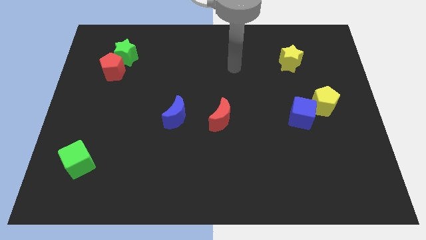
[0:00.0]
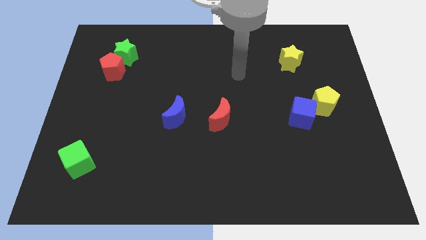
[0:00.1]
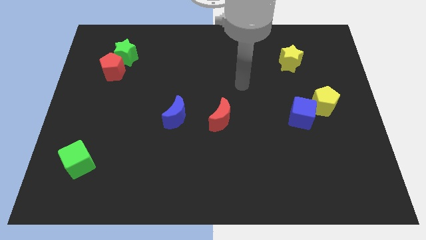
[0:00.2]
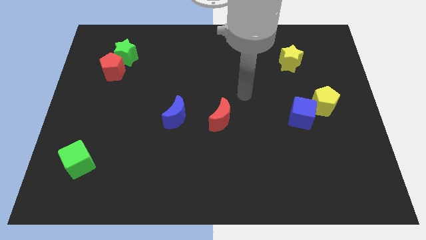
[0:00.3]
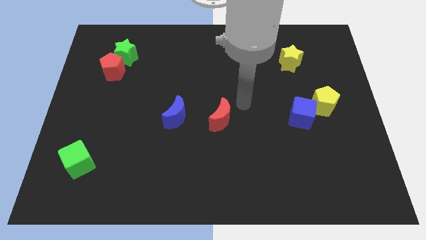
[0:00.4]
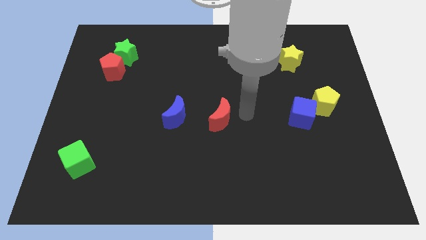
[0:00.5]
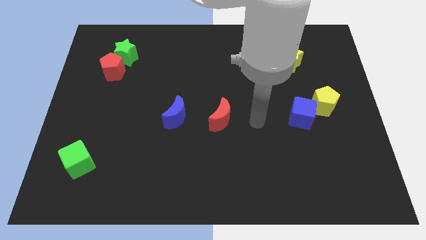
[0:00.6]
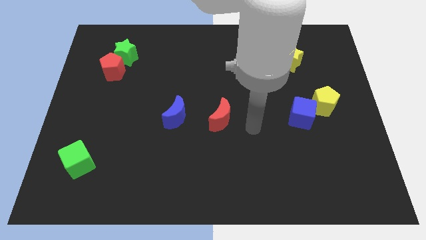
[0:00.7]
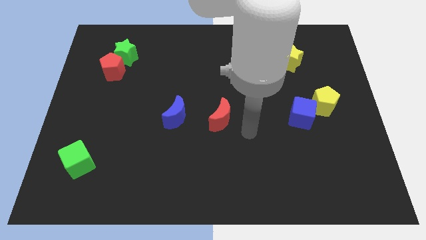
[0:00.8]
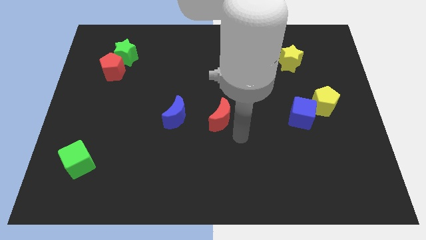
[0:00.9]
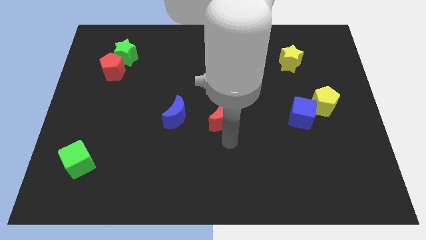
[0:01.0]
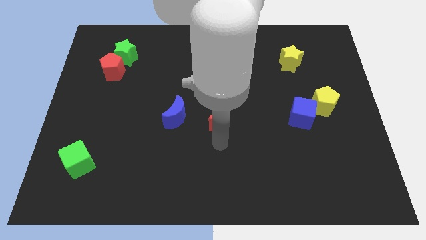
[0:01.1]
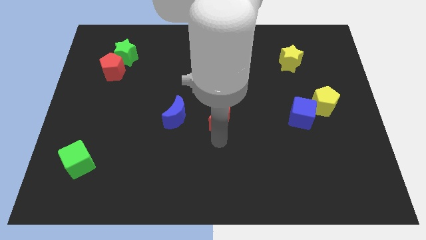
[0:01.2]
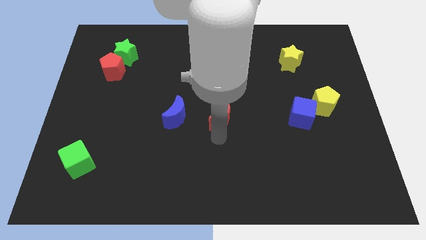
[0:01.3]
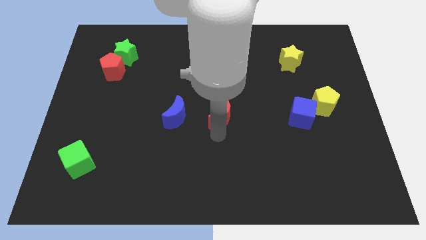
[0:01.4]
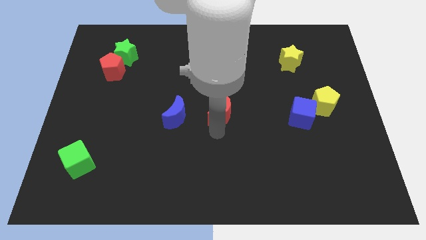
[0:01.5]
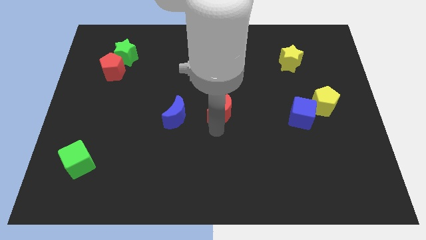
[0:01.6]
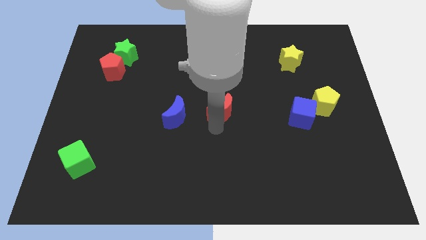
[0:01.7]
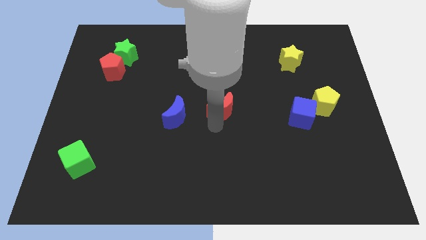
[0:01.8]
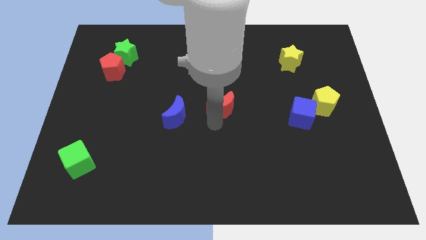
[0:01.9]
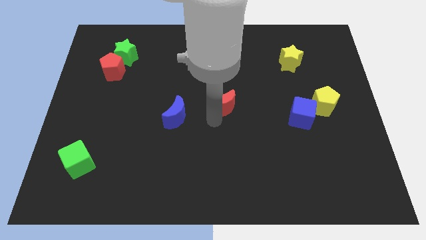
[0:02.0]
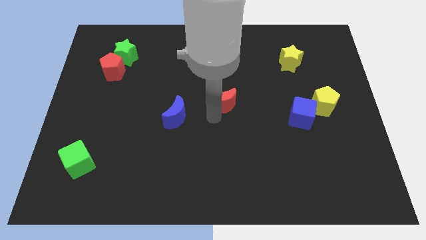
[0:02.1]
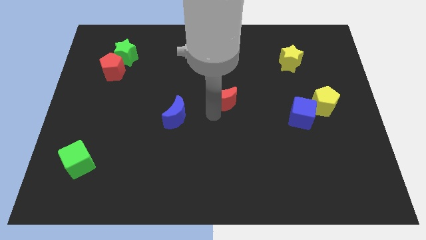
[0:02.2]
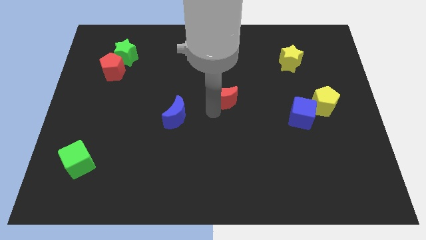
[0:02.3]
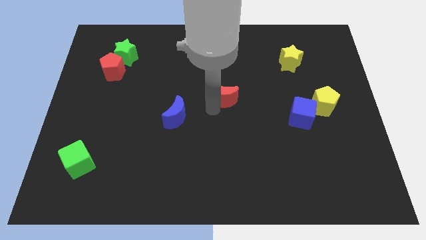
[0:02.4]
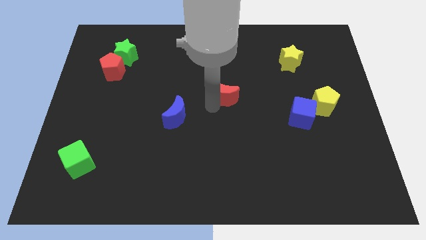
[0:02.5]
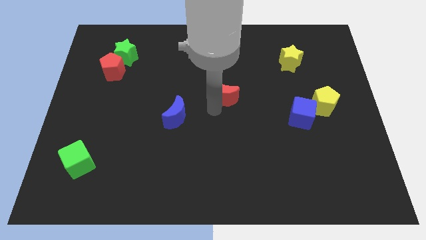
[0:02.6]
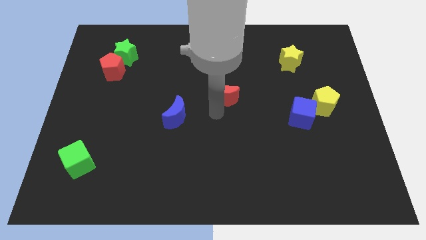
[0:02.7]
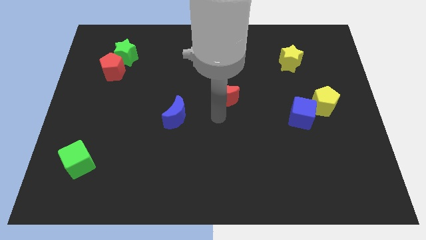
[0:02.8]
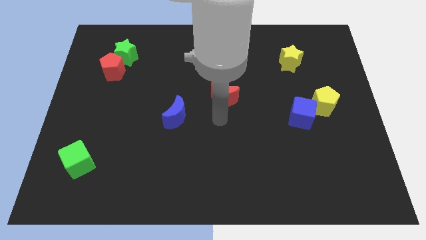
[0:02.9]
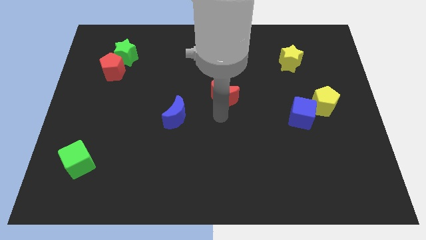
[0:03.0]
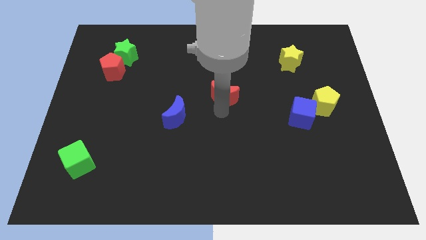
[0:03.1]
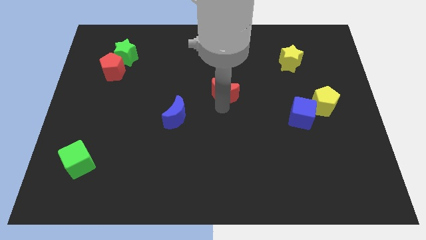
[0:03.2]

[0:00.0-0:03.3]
move the red moon slightly upwards

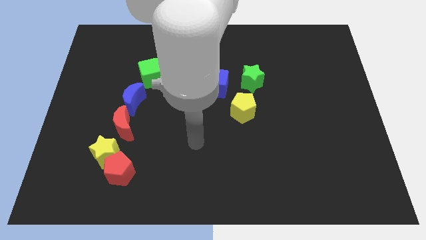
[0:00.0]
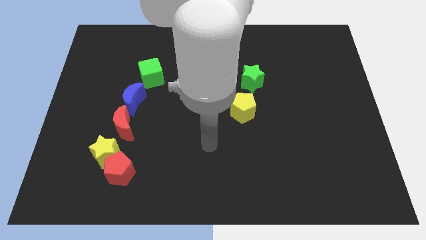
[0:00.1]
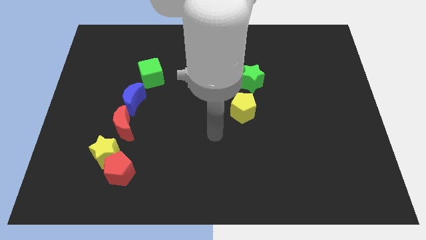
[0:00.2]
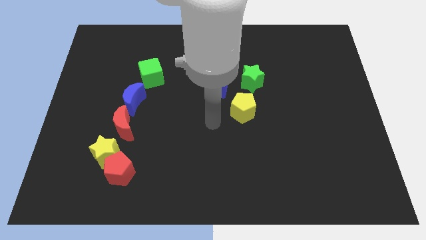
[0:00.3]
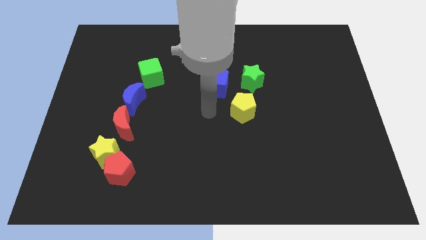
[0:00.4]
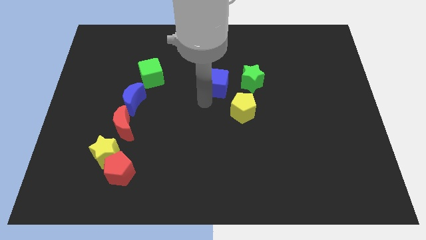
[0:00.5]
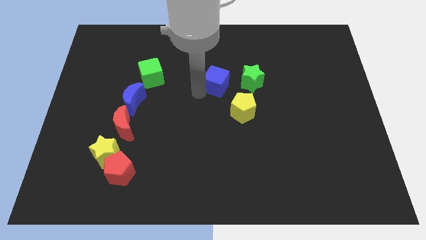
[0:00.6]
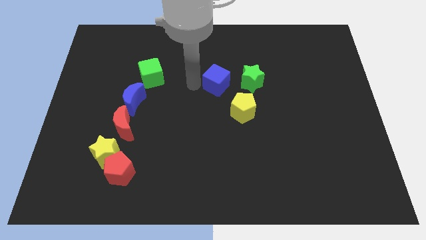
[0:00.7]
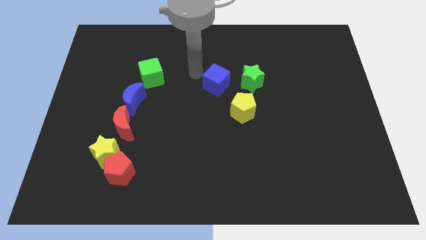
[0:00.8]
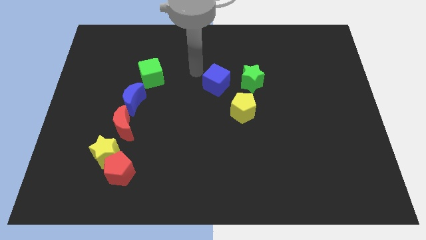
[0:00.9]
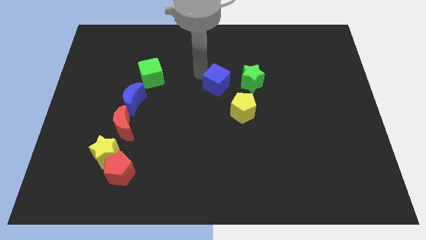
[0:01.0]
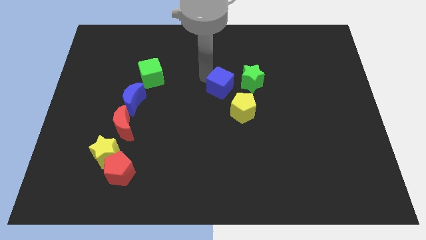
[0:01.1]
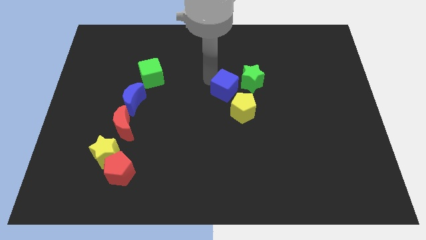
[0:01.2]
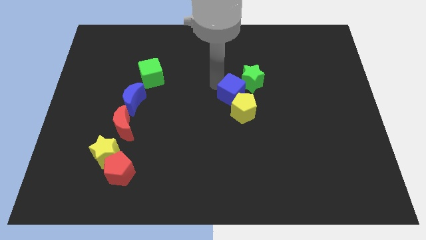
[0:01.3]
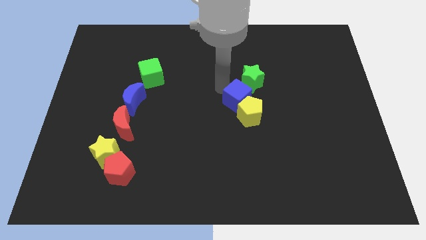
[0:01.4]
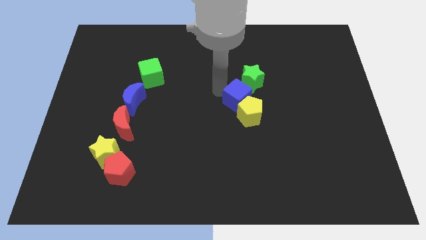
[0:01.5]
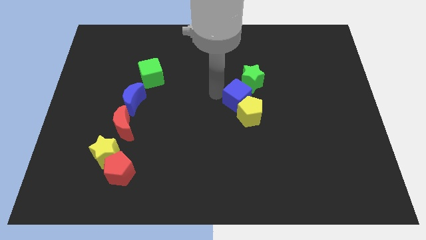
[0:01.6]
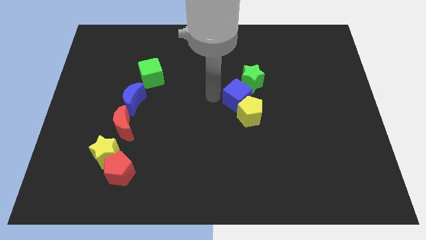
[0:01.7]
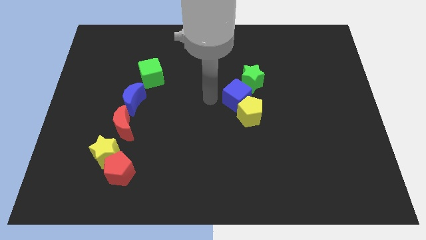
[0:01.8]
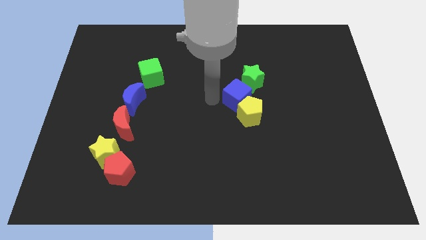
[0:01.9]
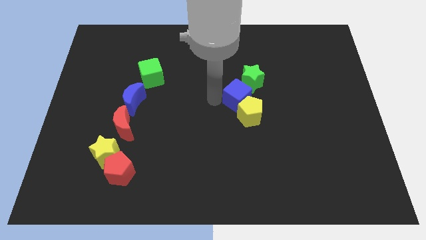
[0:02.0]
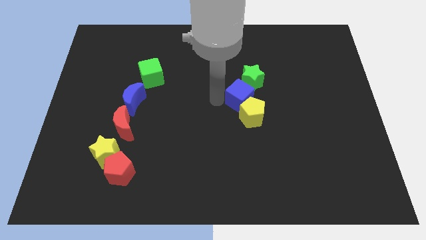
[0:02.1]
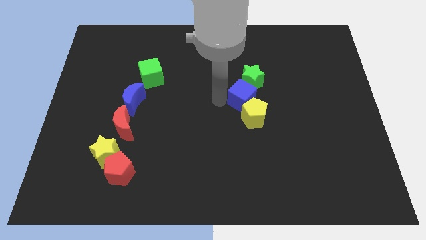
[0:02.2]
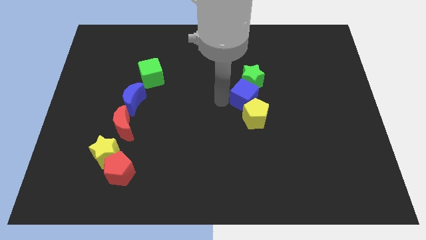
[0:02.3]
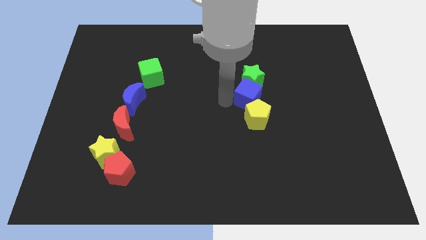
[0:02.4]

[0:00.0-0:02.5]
move the blue cube somewhat to the right

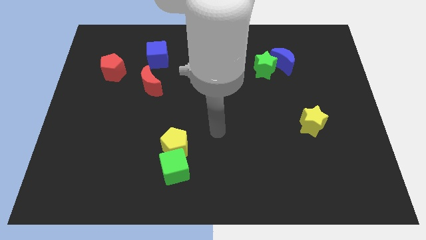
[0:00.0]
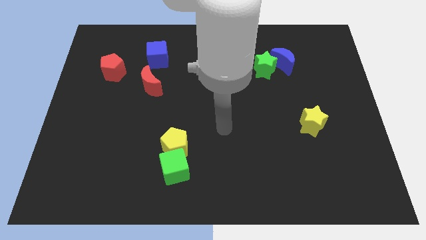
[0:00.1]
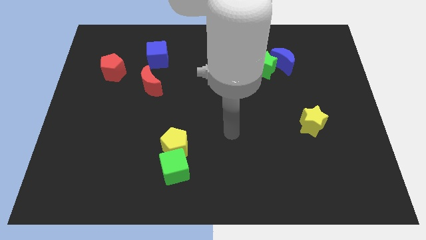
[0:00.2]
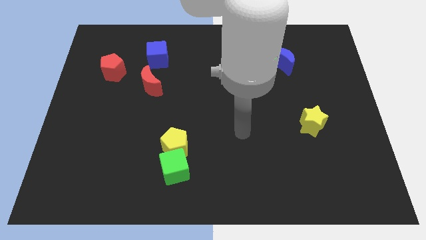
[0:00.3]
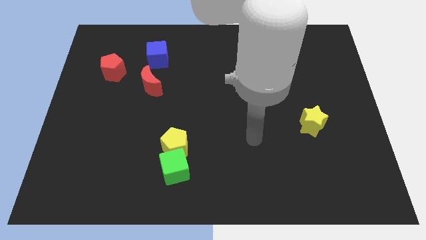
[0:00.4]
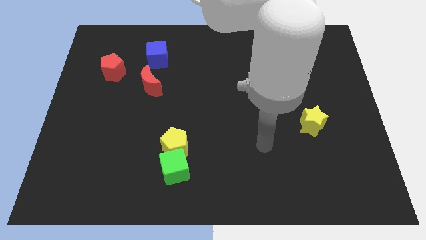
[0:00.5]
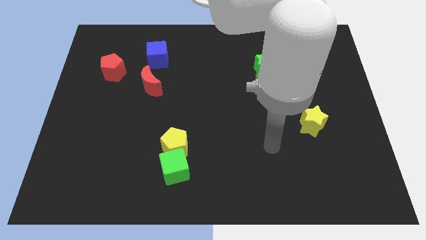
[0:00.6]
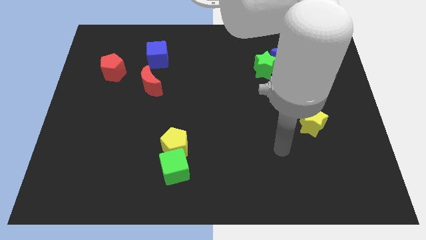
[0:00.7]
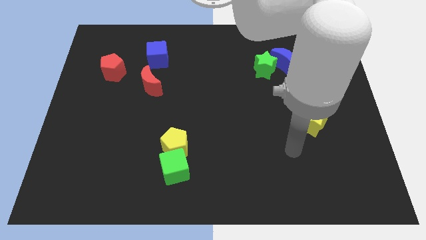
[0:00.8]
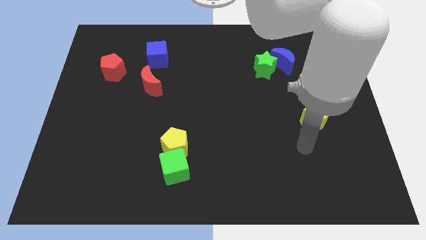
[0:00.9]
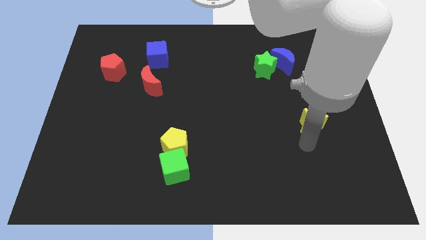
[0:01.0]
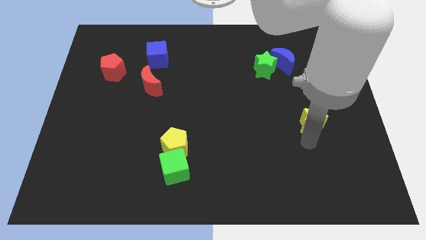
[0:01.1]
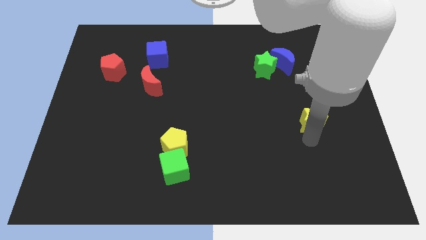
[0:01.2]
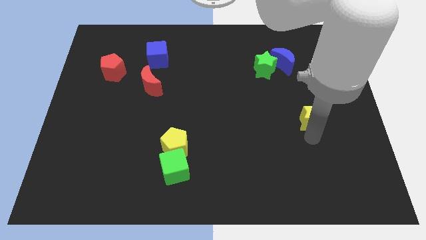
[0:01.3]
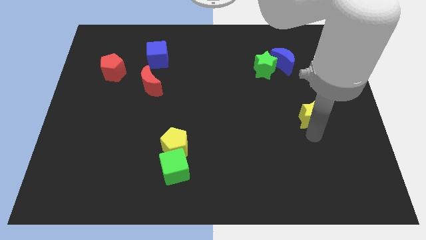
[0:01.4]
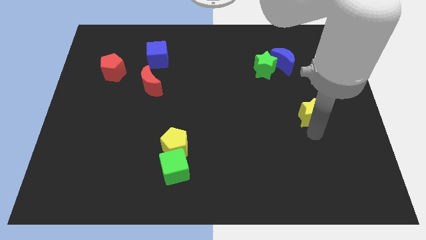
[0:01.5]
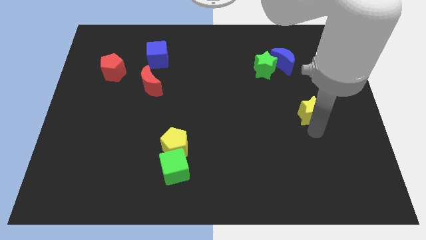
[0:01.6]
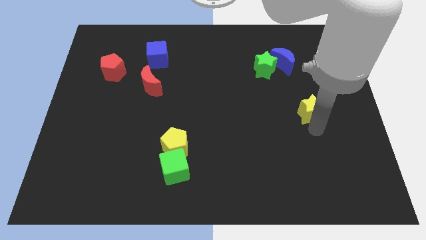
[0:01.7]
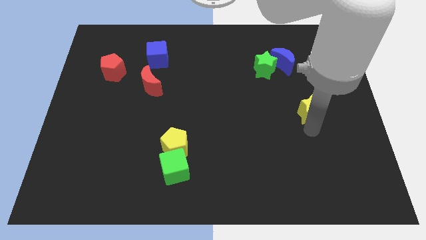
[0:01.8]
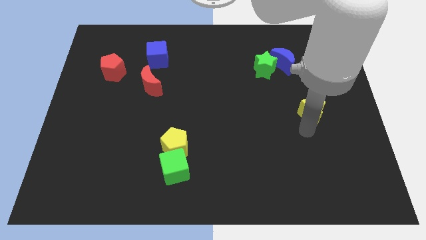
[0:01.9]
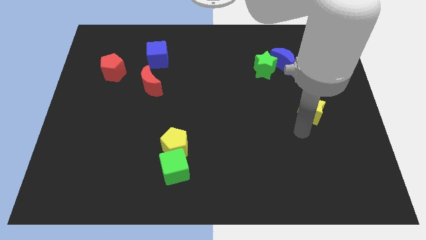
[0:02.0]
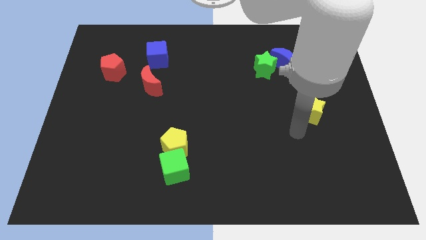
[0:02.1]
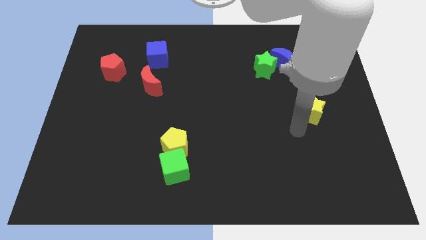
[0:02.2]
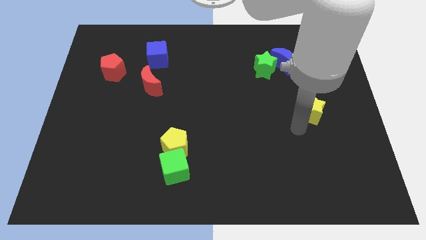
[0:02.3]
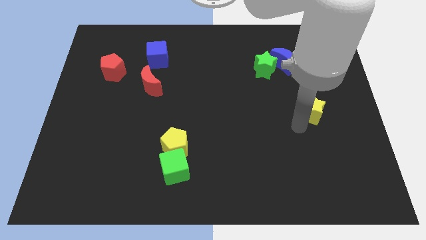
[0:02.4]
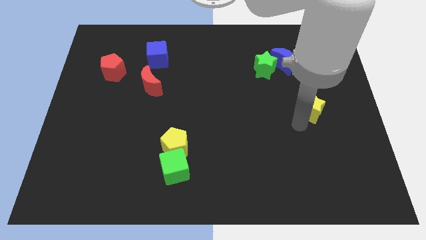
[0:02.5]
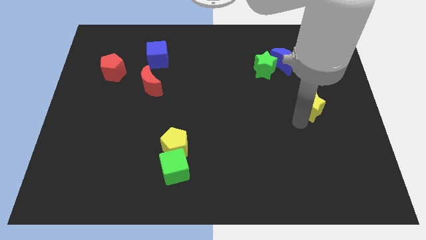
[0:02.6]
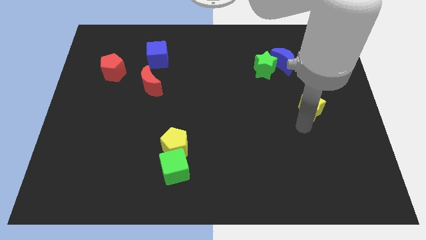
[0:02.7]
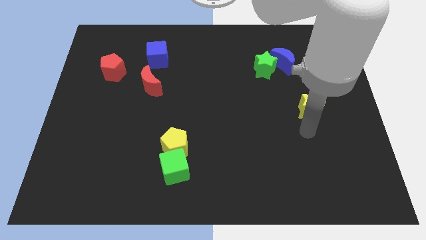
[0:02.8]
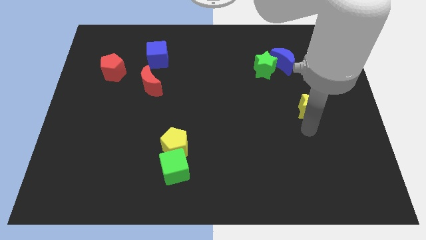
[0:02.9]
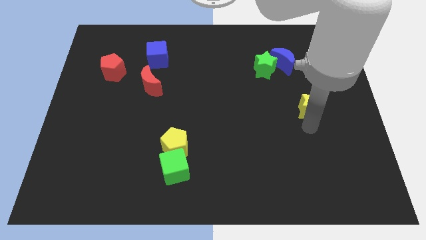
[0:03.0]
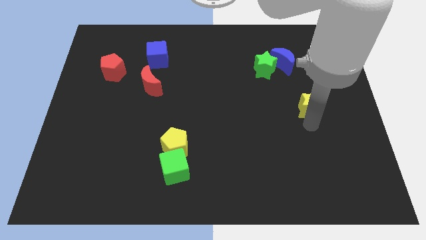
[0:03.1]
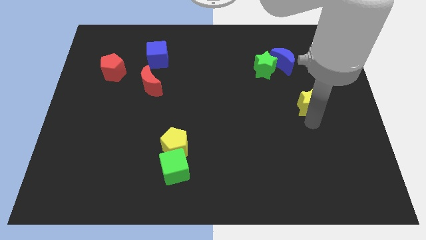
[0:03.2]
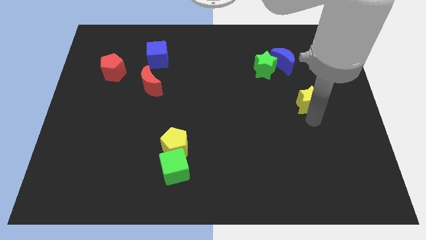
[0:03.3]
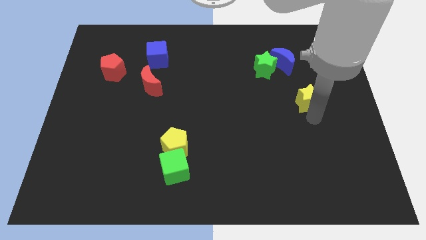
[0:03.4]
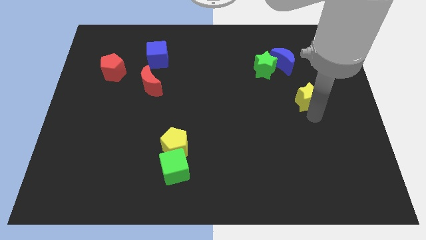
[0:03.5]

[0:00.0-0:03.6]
move the yellow star up a bit
